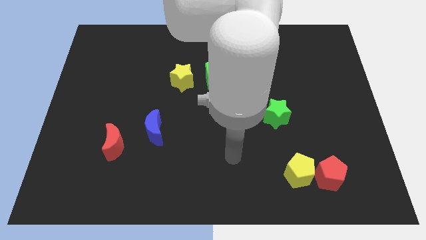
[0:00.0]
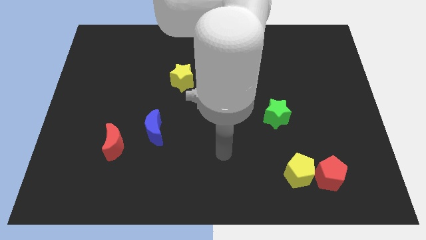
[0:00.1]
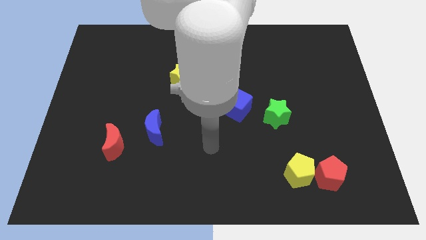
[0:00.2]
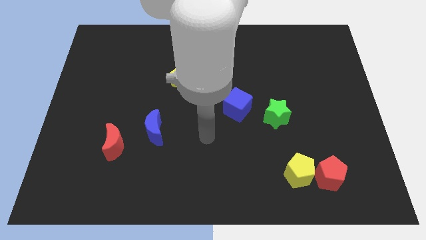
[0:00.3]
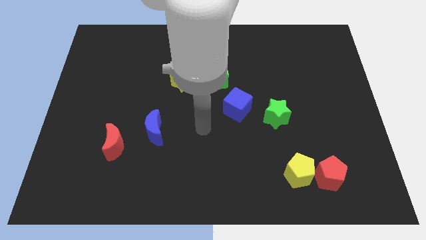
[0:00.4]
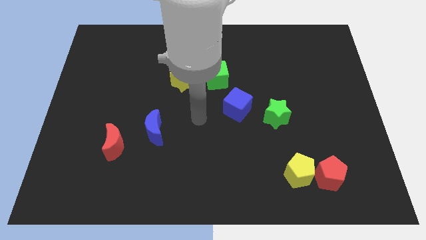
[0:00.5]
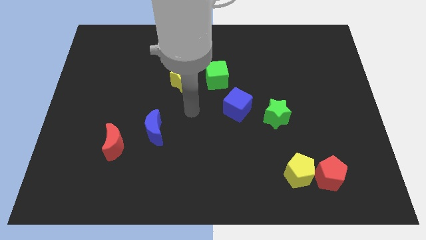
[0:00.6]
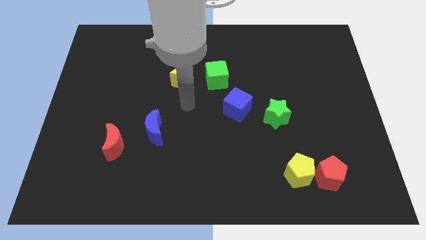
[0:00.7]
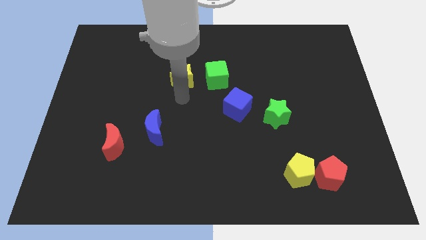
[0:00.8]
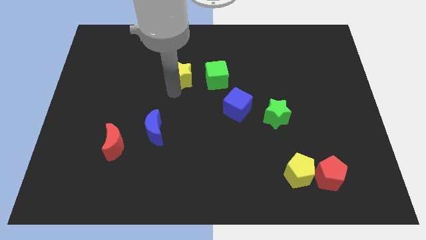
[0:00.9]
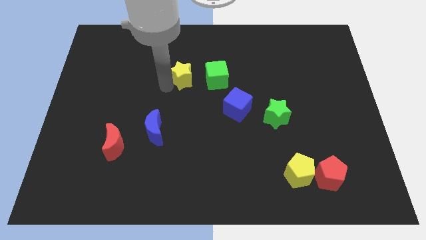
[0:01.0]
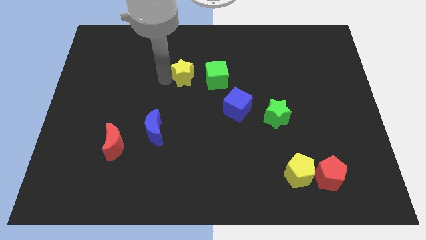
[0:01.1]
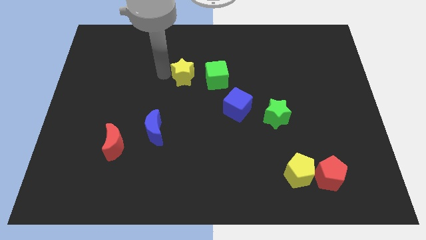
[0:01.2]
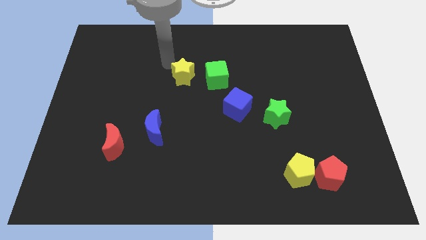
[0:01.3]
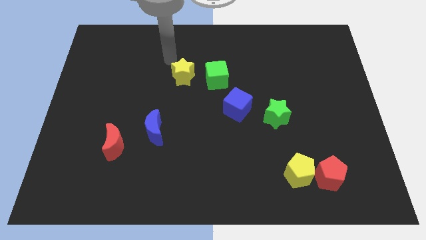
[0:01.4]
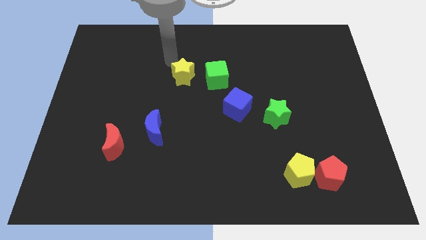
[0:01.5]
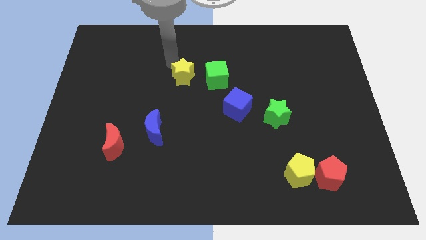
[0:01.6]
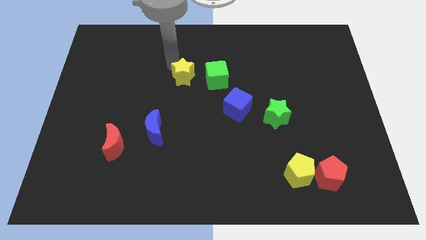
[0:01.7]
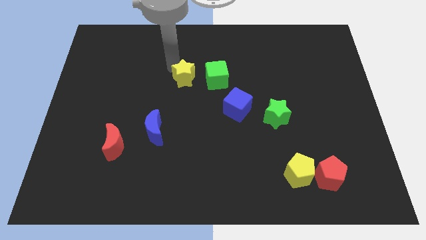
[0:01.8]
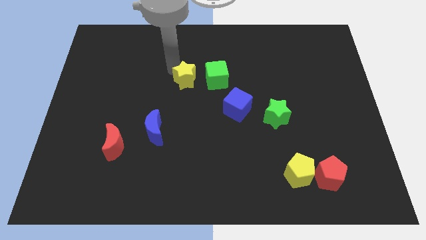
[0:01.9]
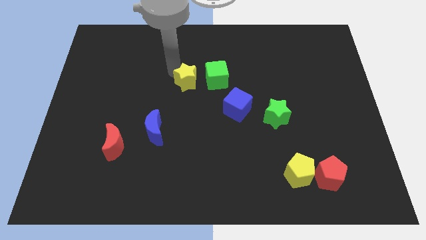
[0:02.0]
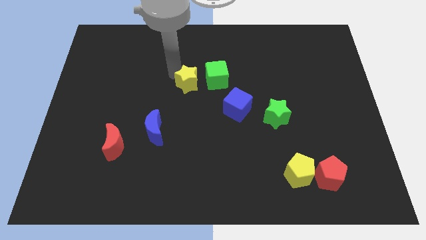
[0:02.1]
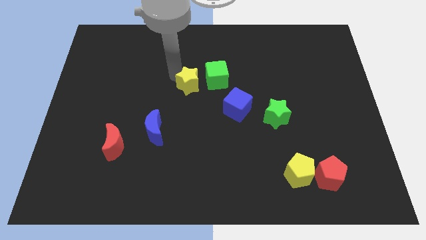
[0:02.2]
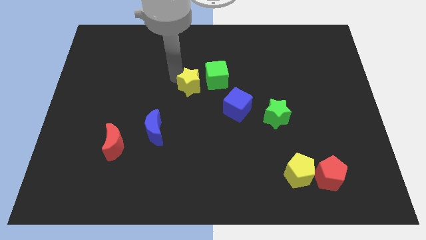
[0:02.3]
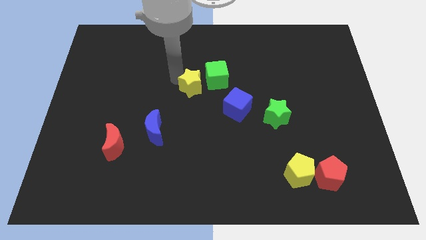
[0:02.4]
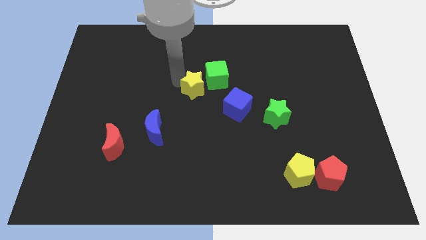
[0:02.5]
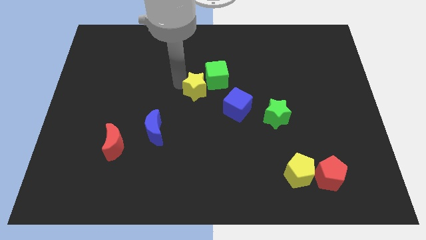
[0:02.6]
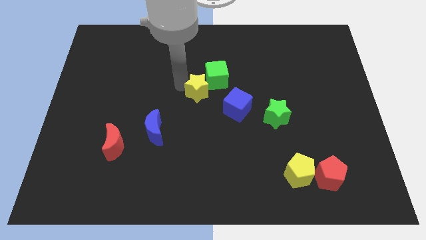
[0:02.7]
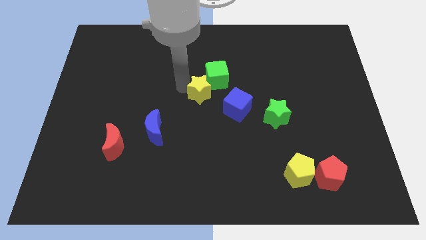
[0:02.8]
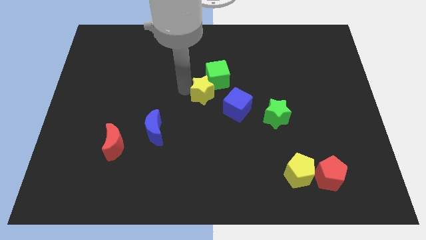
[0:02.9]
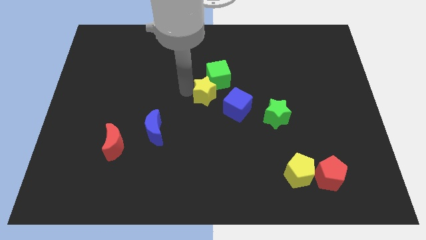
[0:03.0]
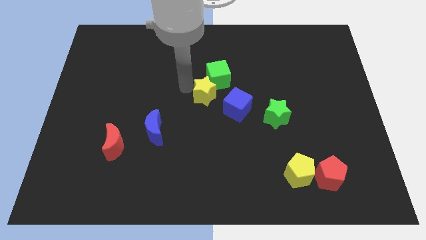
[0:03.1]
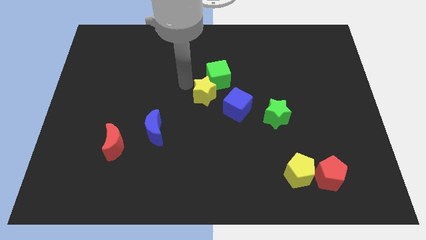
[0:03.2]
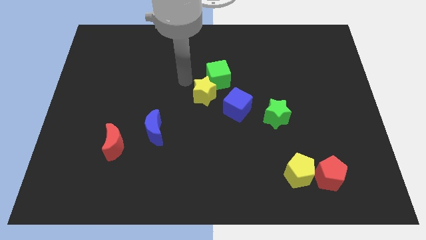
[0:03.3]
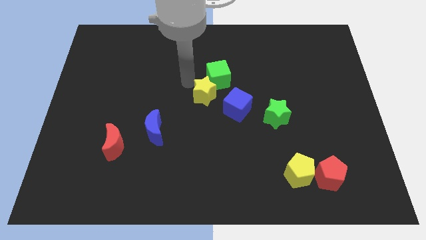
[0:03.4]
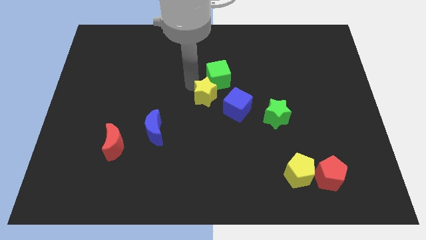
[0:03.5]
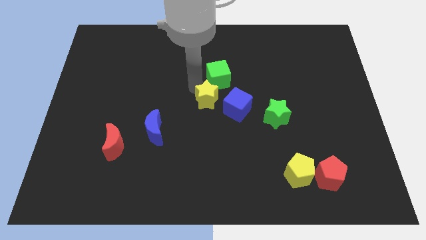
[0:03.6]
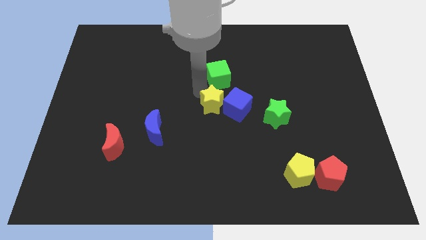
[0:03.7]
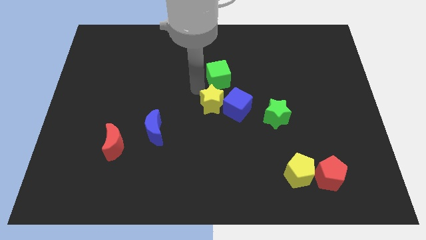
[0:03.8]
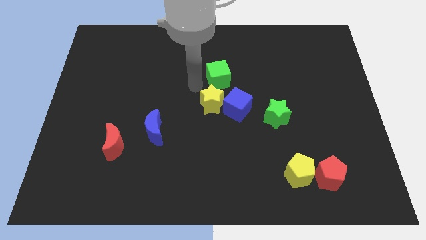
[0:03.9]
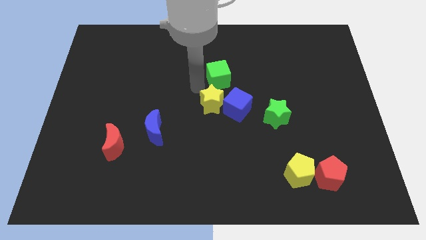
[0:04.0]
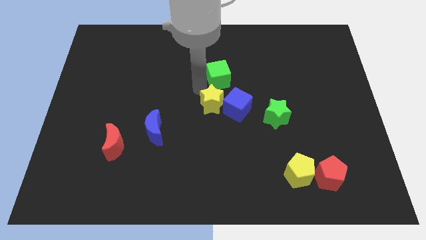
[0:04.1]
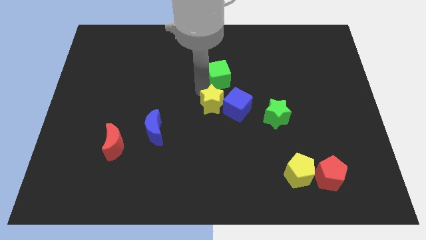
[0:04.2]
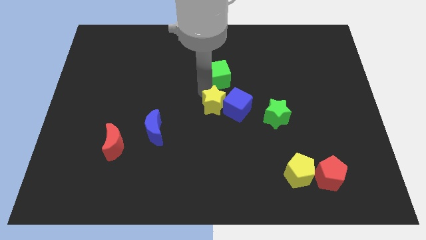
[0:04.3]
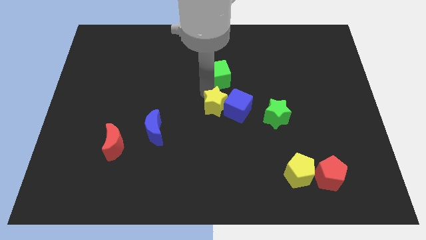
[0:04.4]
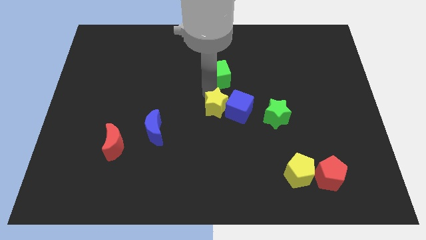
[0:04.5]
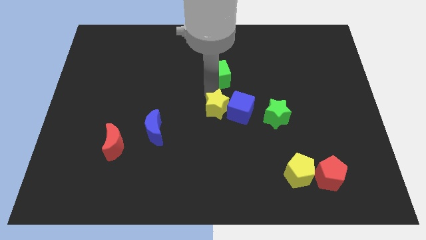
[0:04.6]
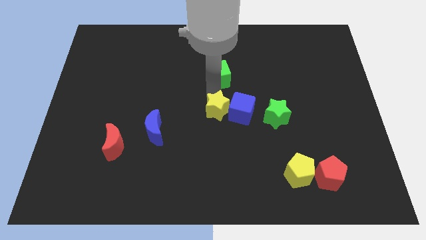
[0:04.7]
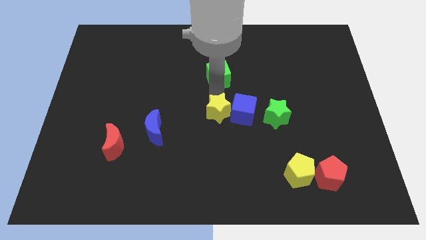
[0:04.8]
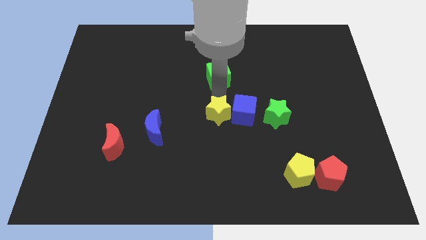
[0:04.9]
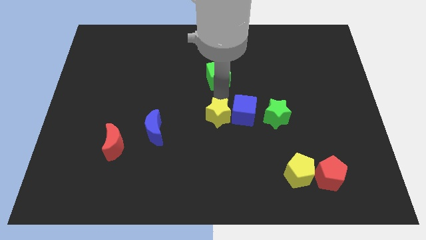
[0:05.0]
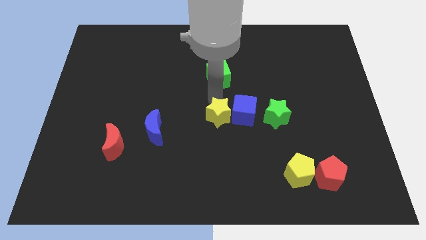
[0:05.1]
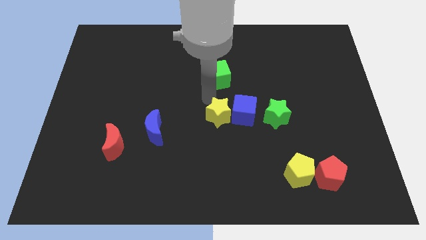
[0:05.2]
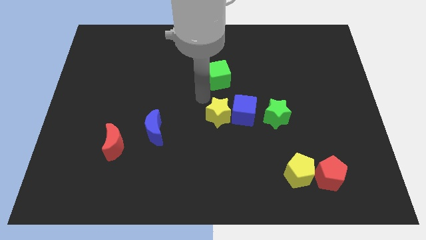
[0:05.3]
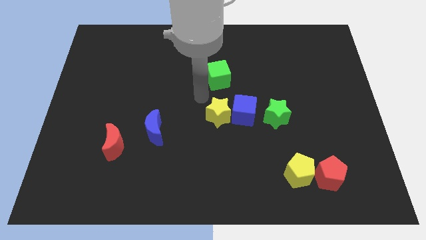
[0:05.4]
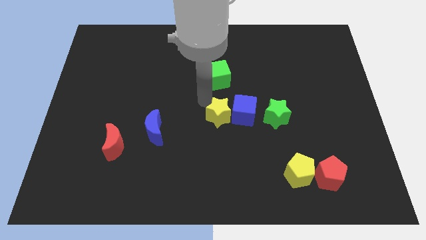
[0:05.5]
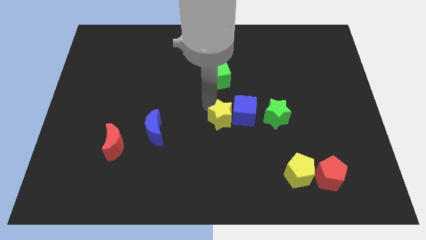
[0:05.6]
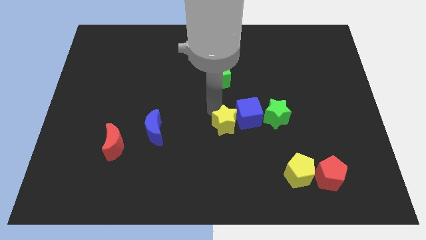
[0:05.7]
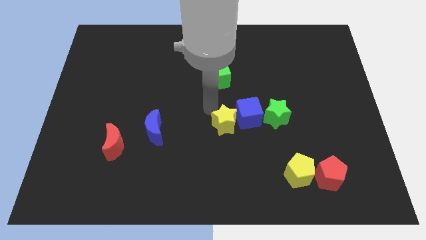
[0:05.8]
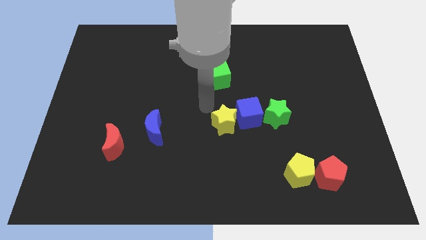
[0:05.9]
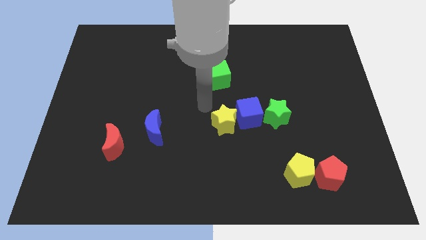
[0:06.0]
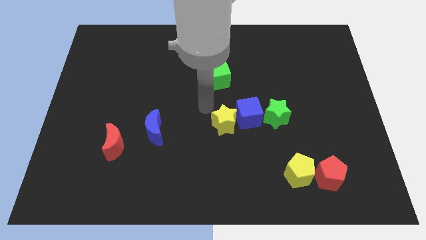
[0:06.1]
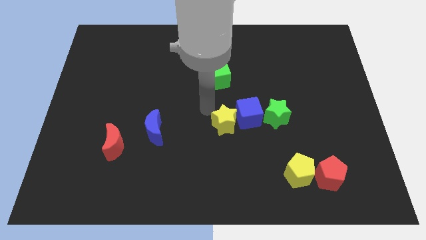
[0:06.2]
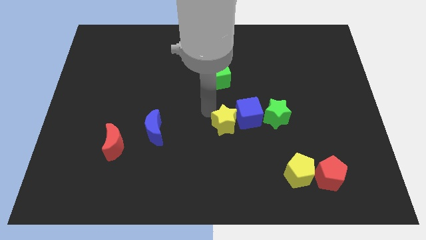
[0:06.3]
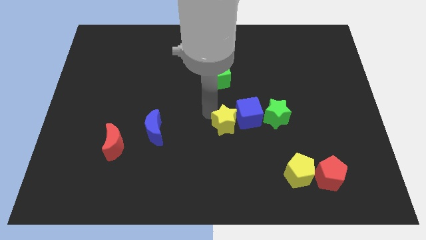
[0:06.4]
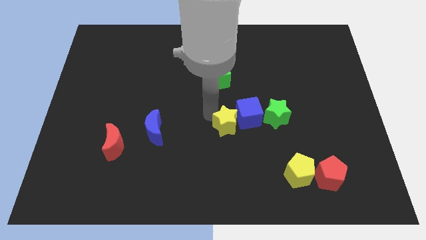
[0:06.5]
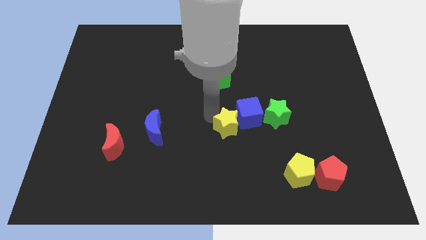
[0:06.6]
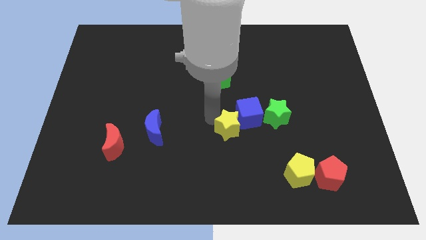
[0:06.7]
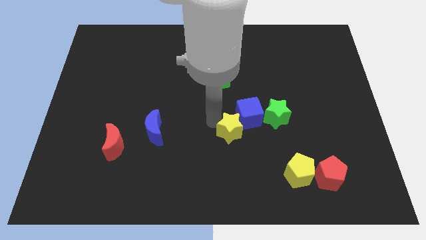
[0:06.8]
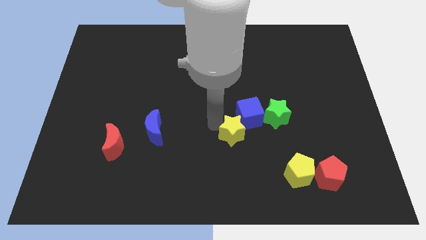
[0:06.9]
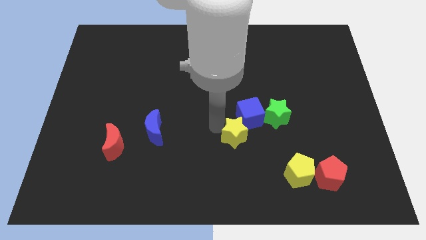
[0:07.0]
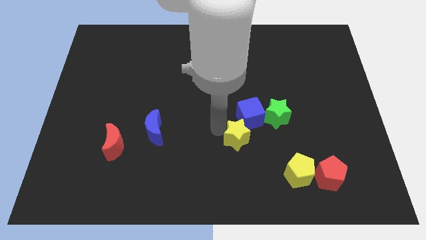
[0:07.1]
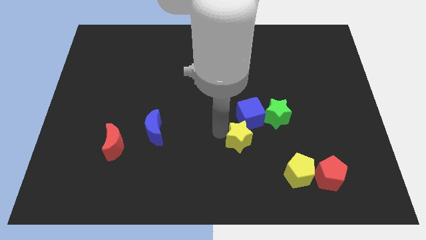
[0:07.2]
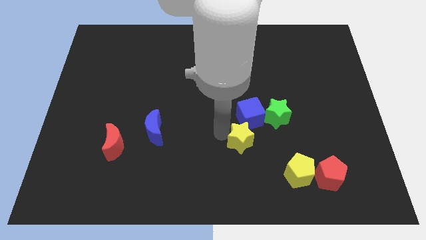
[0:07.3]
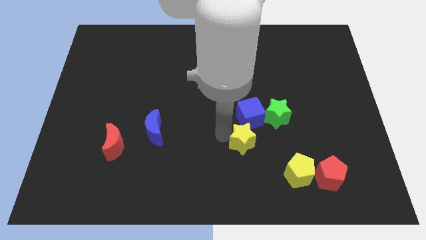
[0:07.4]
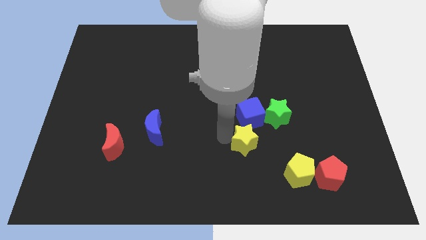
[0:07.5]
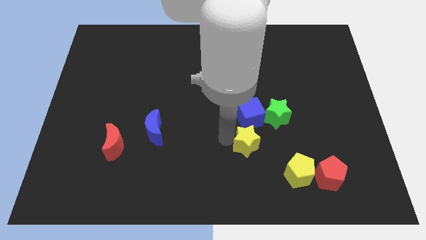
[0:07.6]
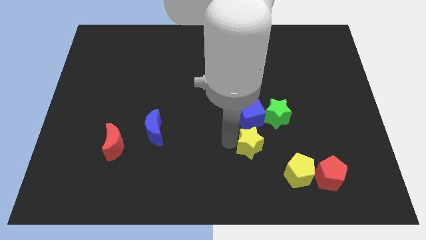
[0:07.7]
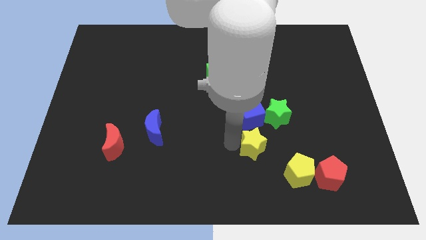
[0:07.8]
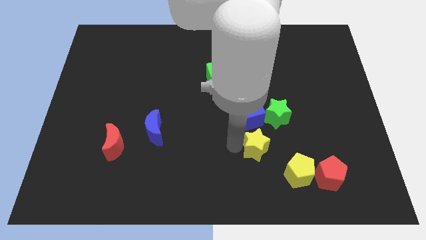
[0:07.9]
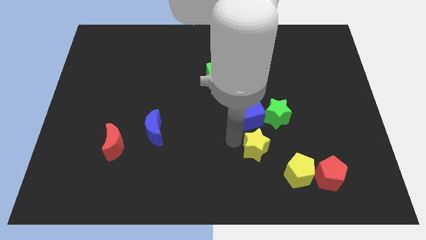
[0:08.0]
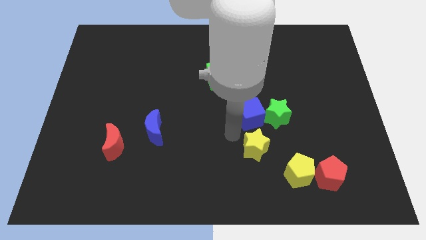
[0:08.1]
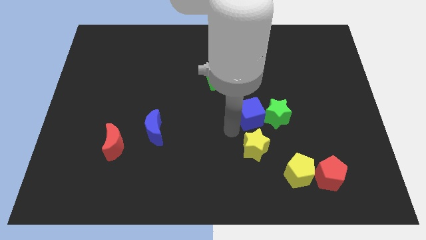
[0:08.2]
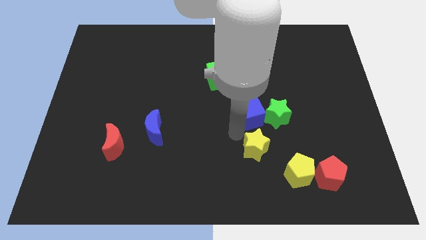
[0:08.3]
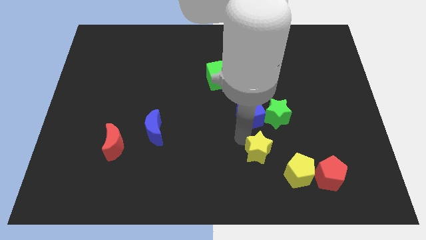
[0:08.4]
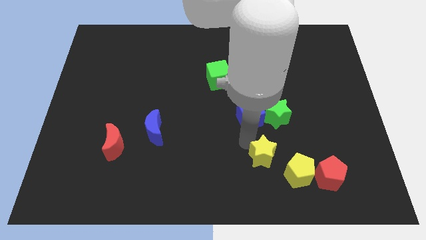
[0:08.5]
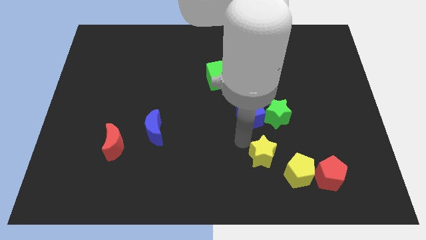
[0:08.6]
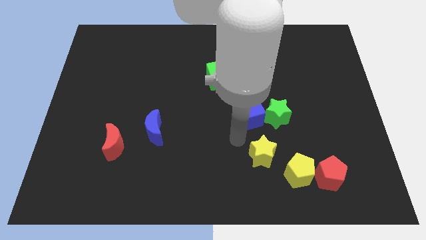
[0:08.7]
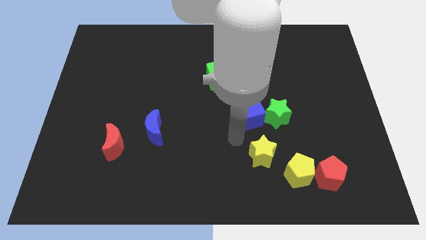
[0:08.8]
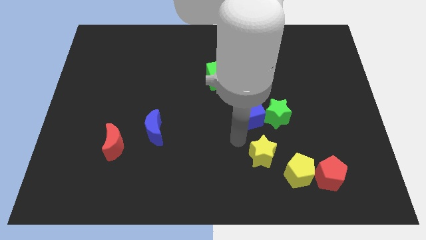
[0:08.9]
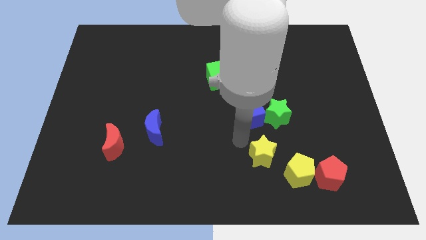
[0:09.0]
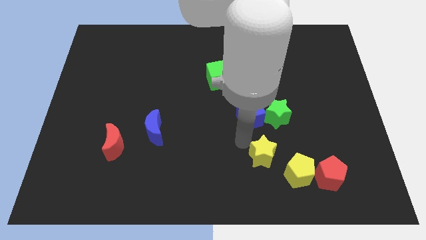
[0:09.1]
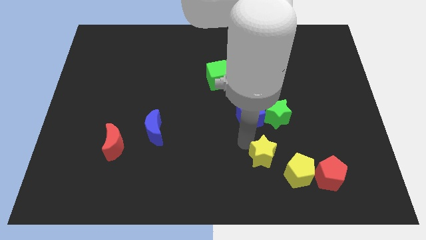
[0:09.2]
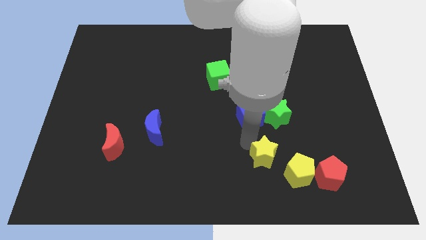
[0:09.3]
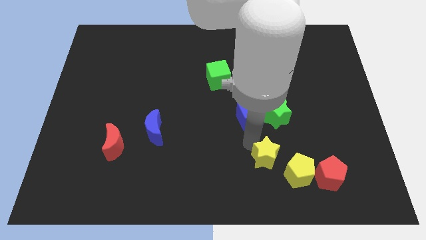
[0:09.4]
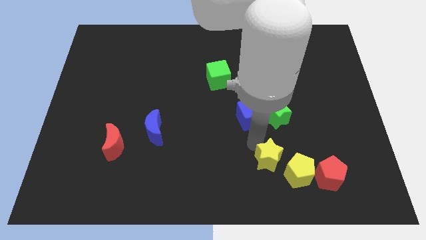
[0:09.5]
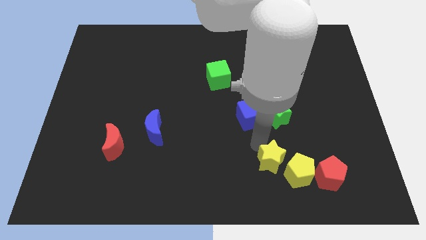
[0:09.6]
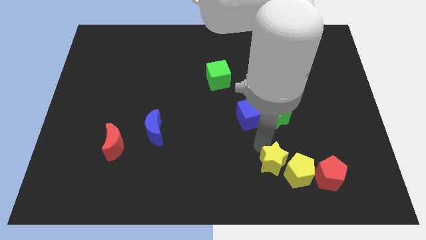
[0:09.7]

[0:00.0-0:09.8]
put the yellow star to the yellow pentagon
